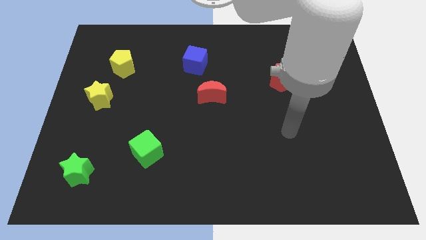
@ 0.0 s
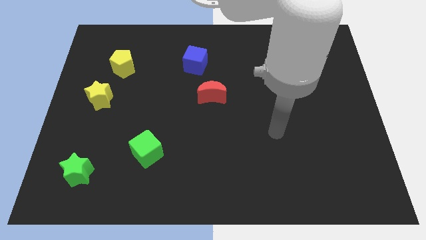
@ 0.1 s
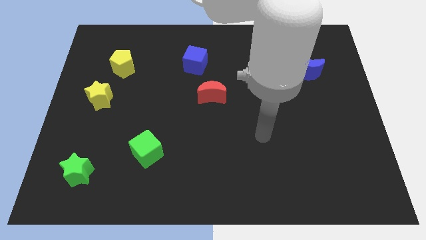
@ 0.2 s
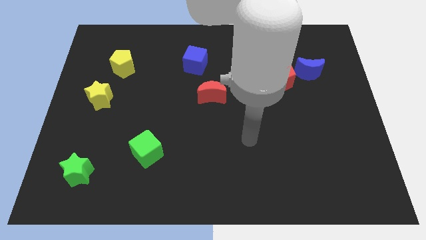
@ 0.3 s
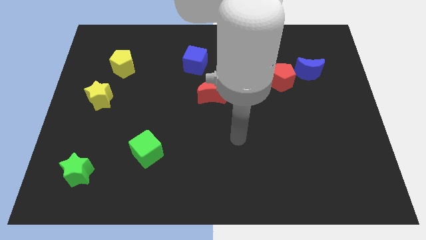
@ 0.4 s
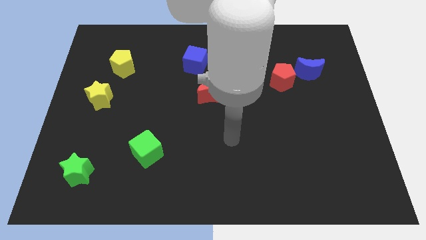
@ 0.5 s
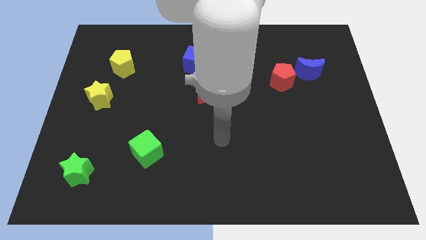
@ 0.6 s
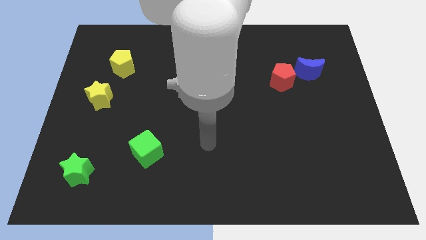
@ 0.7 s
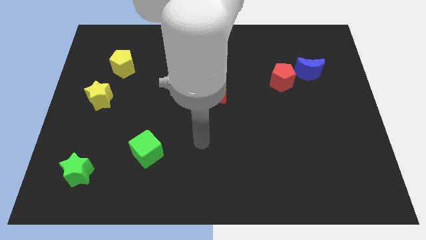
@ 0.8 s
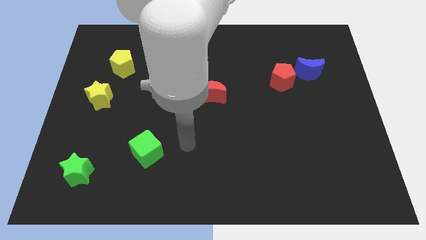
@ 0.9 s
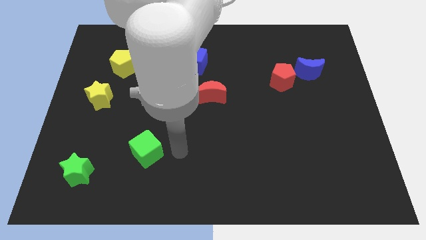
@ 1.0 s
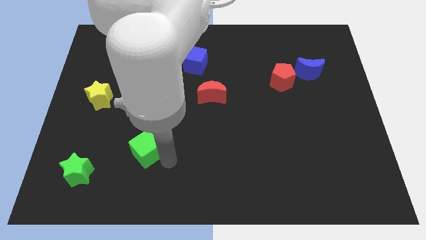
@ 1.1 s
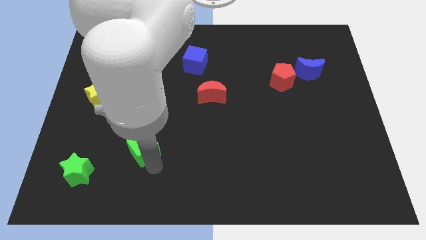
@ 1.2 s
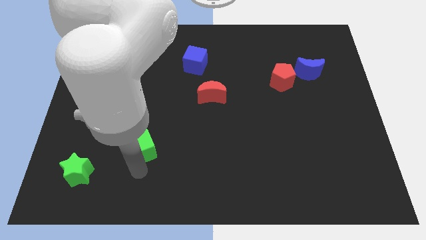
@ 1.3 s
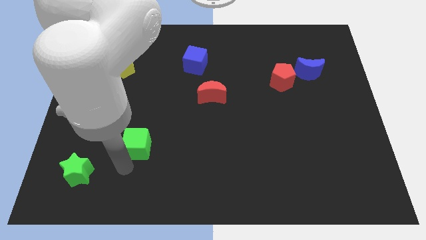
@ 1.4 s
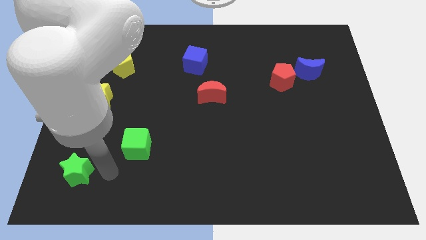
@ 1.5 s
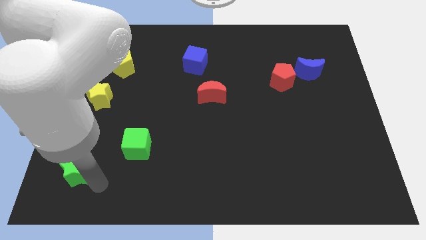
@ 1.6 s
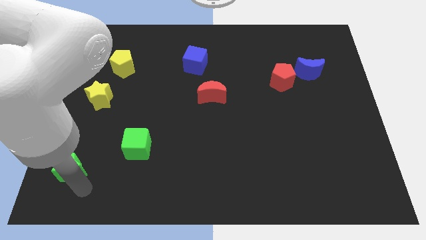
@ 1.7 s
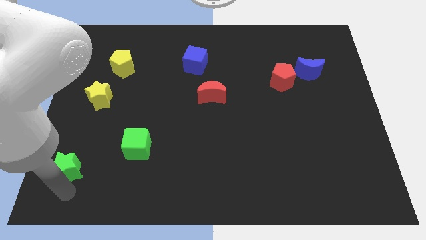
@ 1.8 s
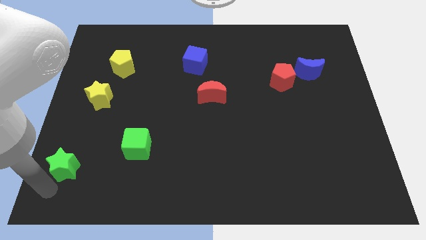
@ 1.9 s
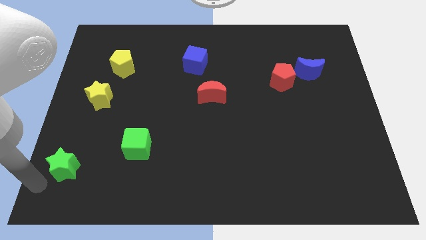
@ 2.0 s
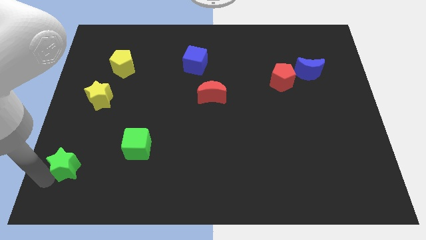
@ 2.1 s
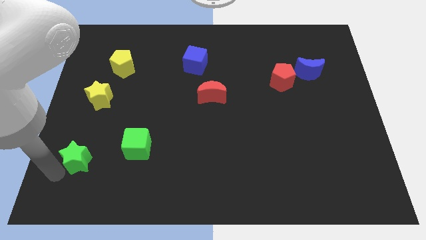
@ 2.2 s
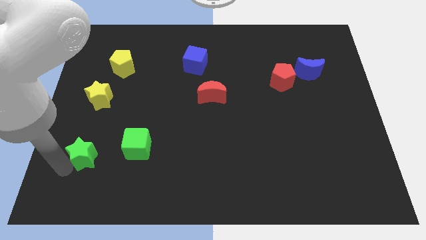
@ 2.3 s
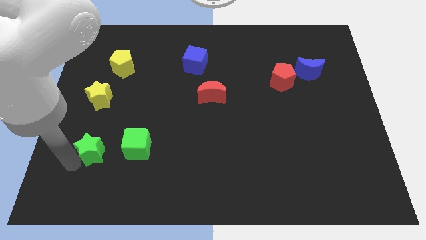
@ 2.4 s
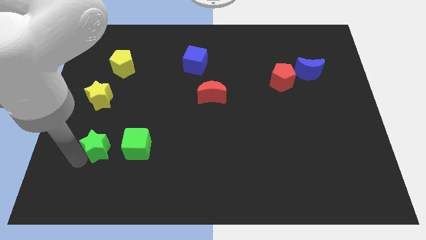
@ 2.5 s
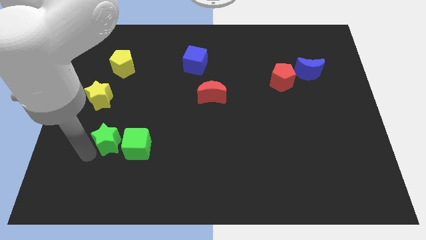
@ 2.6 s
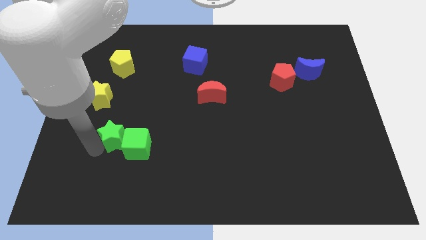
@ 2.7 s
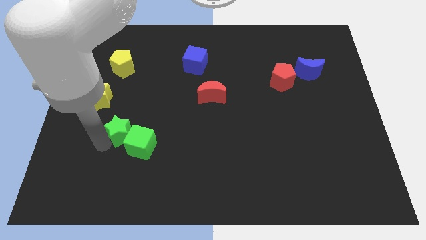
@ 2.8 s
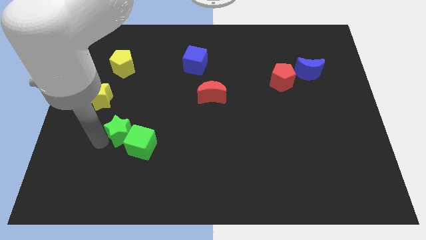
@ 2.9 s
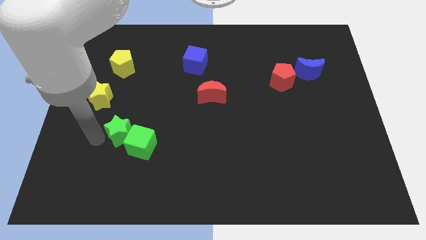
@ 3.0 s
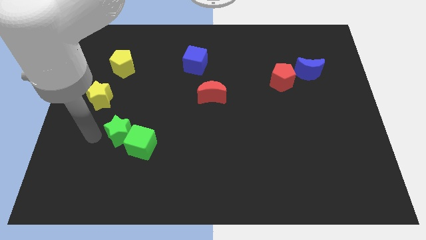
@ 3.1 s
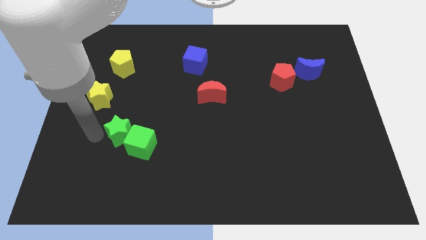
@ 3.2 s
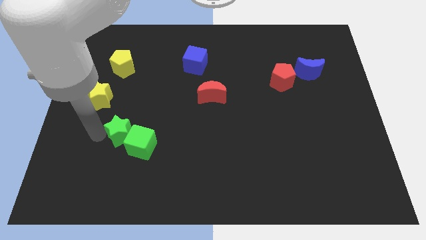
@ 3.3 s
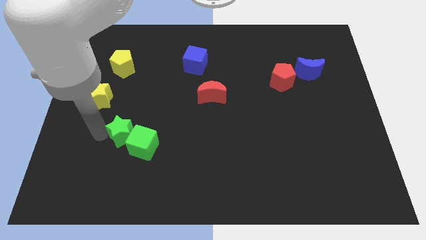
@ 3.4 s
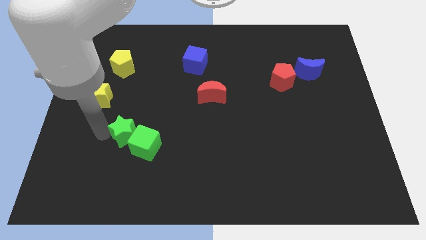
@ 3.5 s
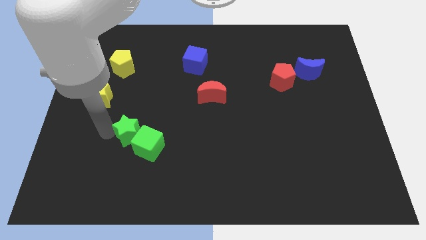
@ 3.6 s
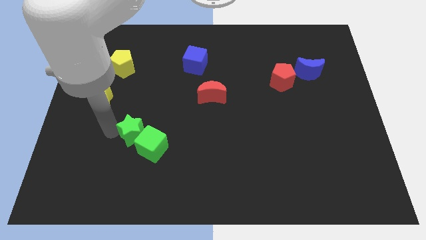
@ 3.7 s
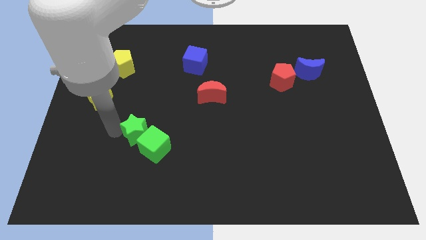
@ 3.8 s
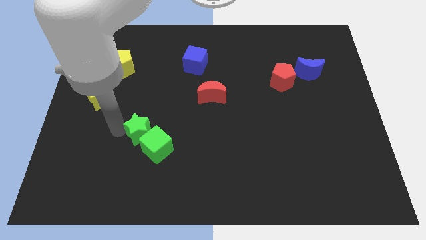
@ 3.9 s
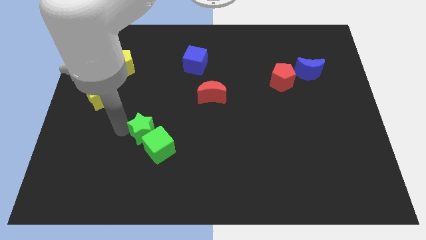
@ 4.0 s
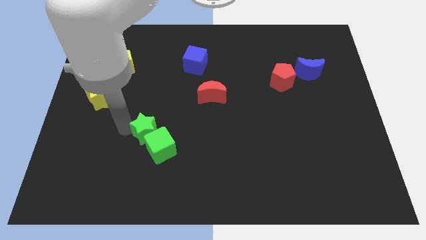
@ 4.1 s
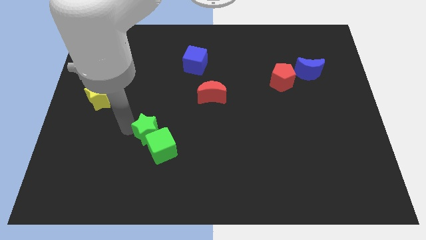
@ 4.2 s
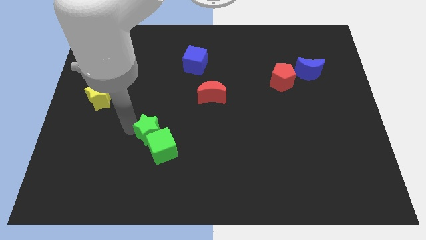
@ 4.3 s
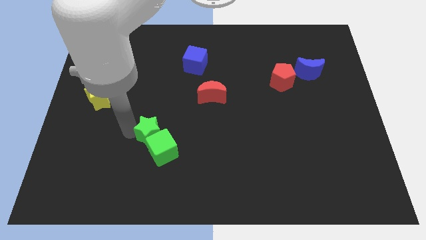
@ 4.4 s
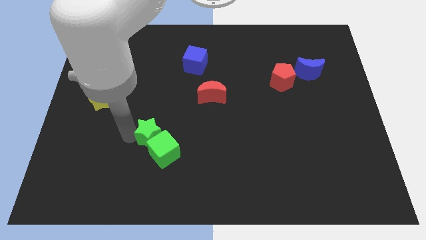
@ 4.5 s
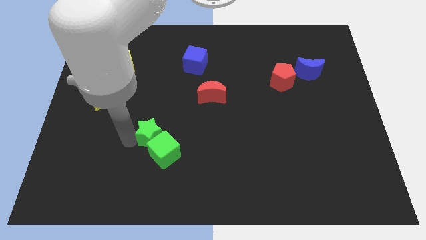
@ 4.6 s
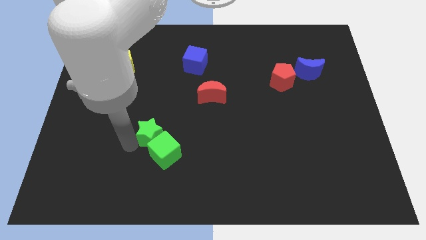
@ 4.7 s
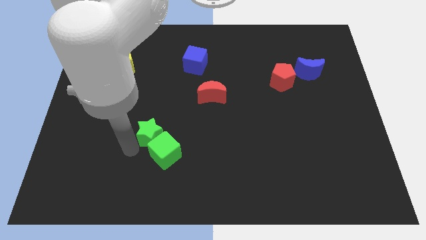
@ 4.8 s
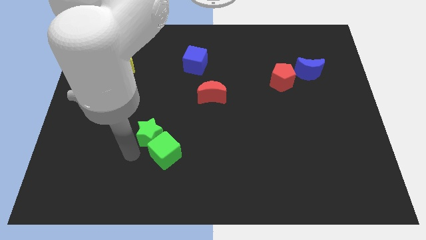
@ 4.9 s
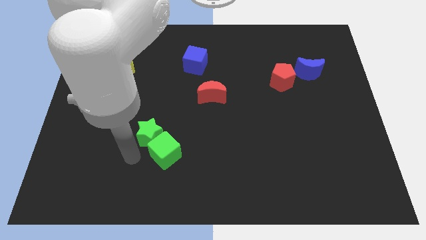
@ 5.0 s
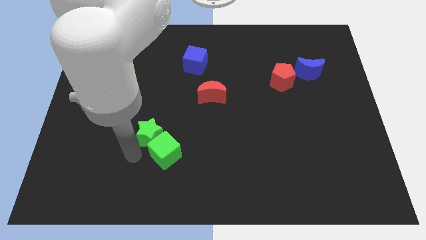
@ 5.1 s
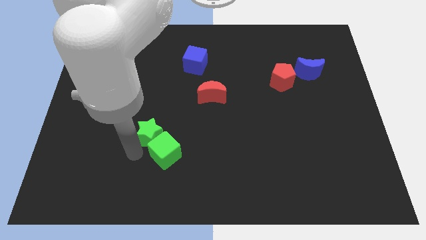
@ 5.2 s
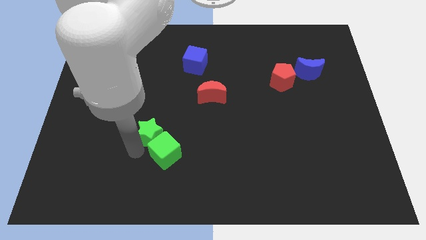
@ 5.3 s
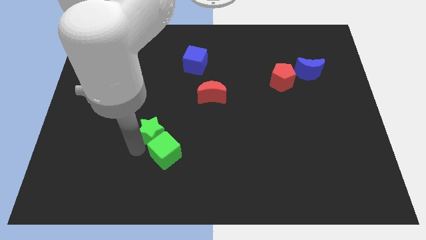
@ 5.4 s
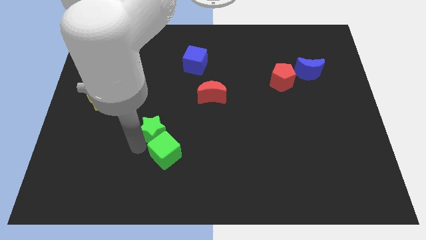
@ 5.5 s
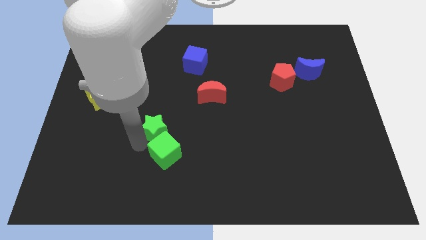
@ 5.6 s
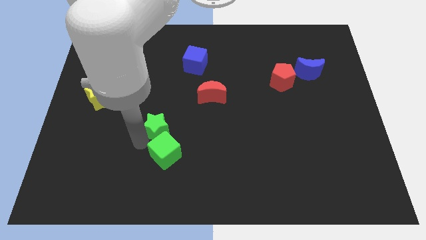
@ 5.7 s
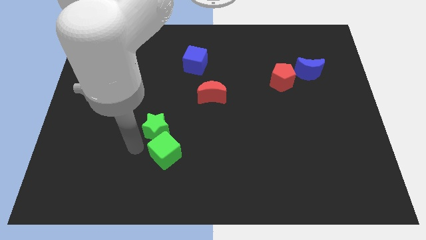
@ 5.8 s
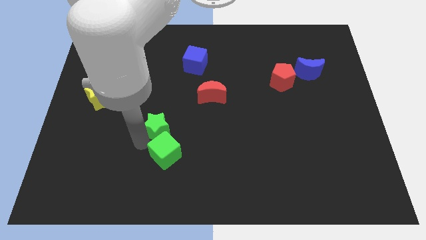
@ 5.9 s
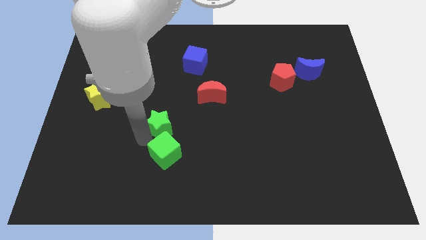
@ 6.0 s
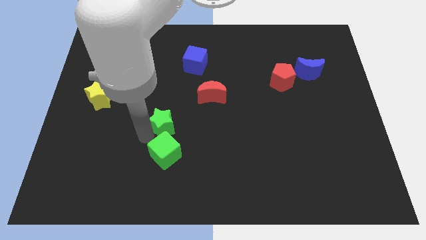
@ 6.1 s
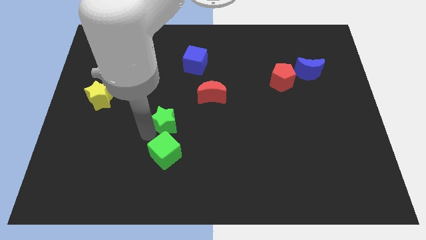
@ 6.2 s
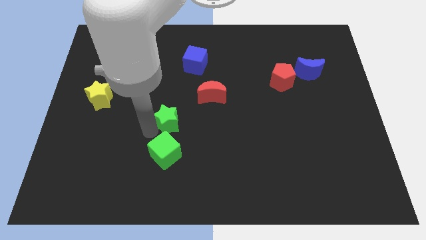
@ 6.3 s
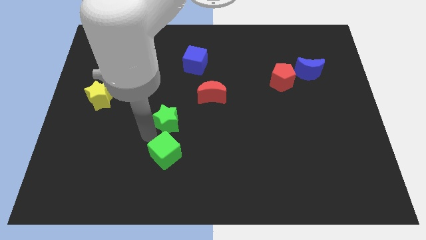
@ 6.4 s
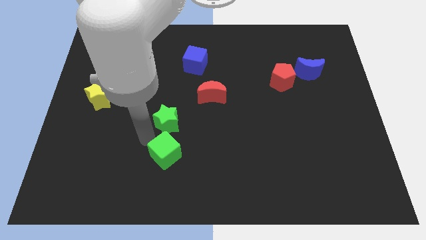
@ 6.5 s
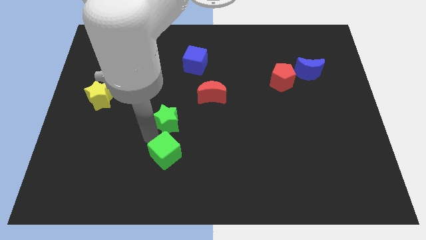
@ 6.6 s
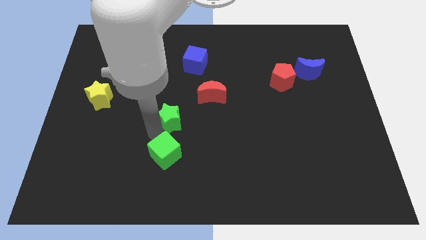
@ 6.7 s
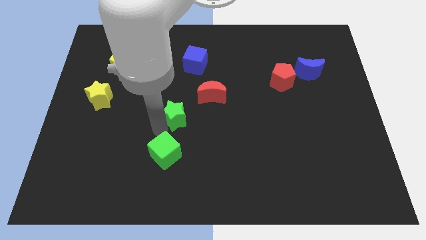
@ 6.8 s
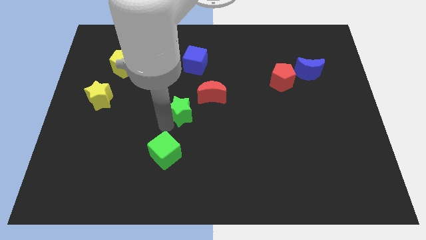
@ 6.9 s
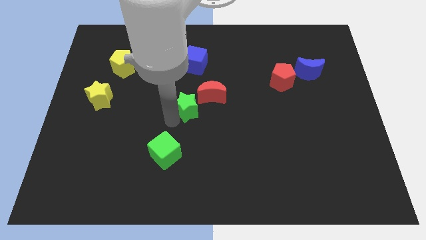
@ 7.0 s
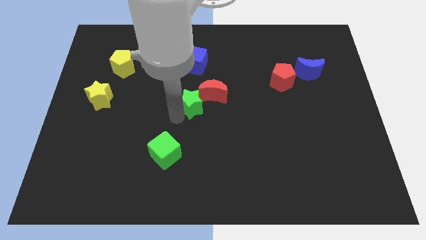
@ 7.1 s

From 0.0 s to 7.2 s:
put the green star to the red moon

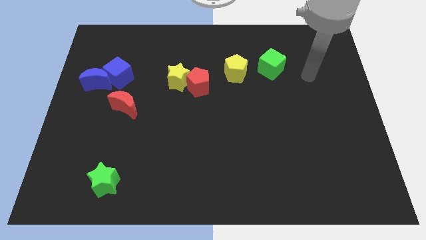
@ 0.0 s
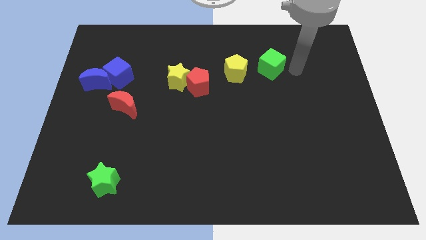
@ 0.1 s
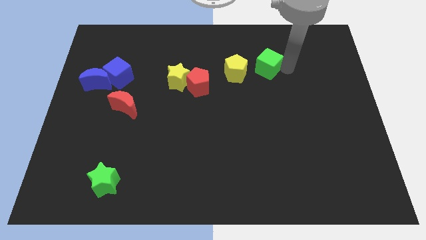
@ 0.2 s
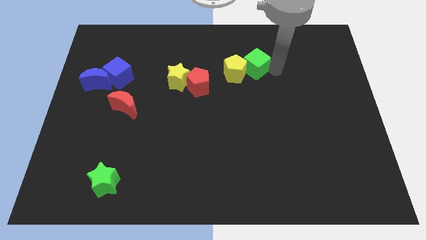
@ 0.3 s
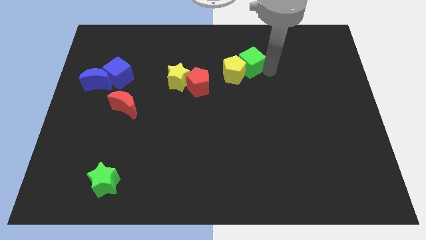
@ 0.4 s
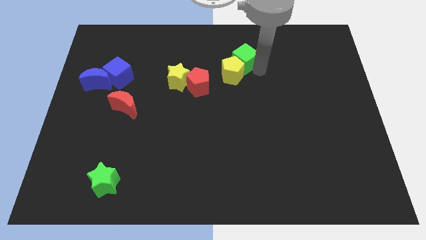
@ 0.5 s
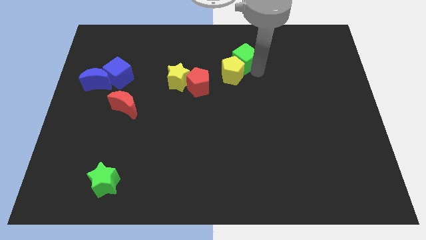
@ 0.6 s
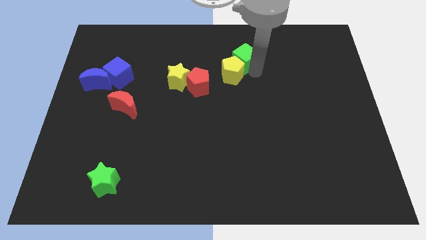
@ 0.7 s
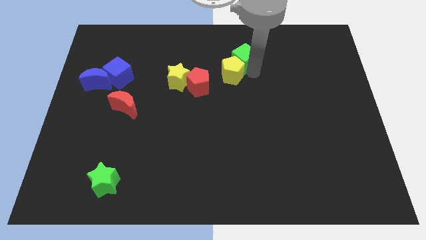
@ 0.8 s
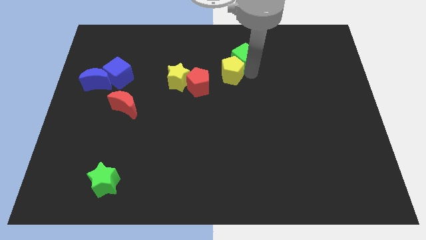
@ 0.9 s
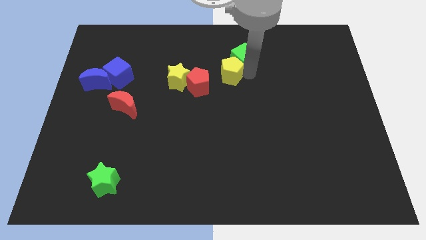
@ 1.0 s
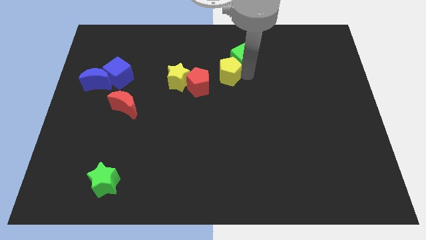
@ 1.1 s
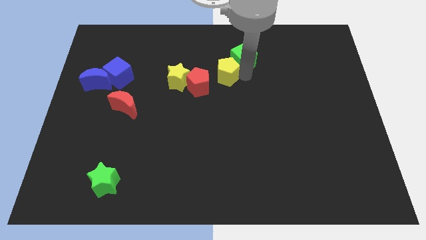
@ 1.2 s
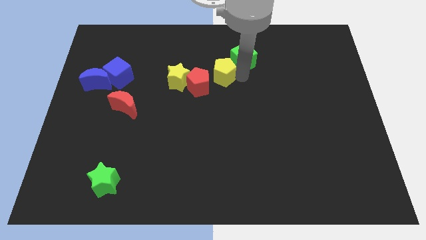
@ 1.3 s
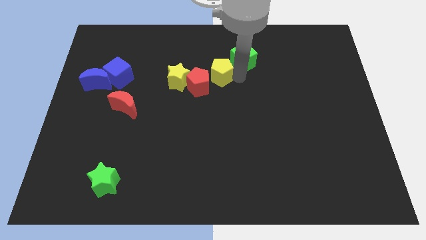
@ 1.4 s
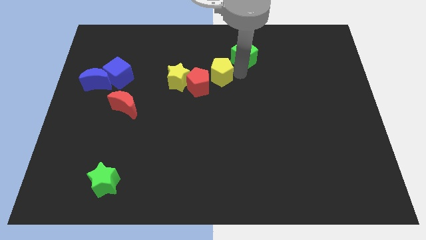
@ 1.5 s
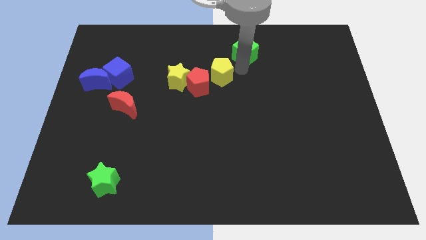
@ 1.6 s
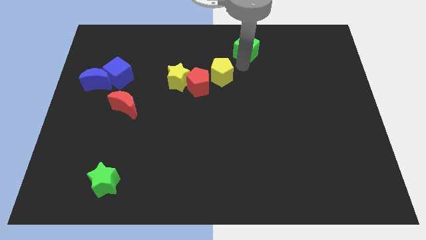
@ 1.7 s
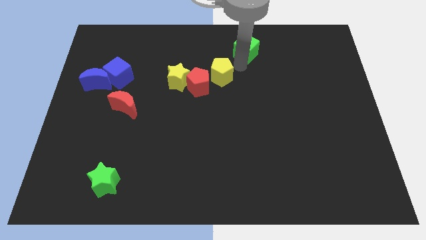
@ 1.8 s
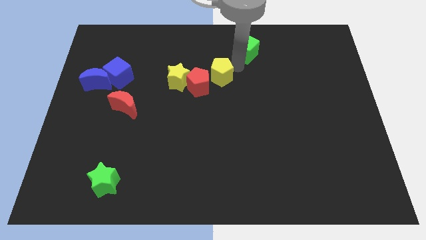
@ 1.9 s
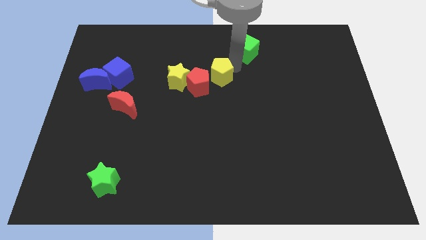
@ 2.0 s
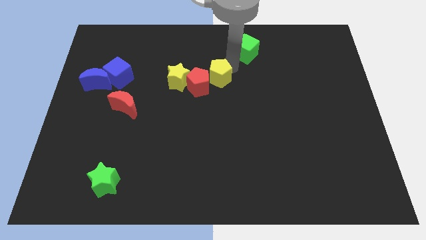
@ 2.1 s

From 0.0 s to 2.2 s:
move the yellow pentagon next to the red pentagon
